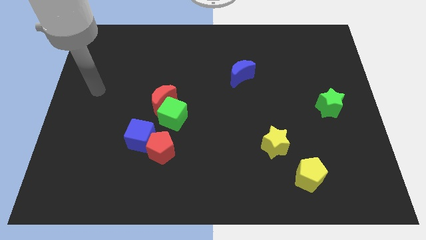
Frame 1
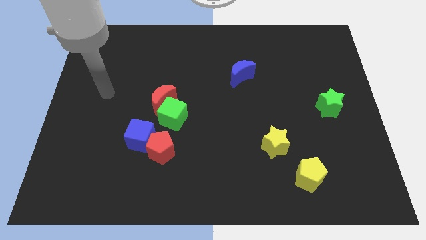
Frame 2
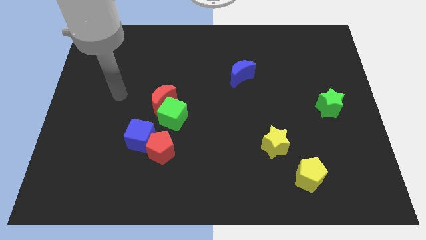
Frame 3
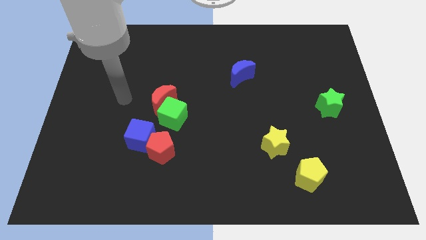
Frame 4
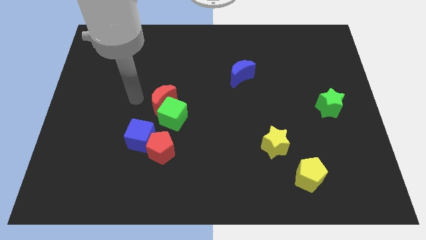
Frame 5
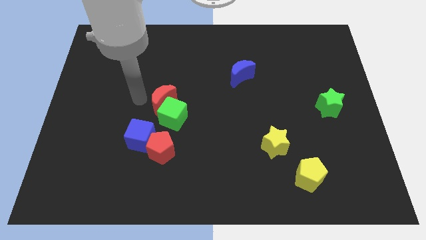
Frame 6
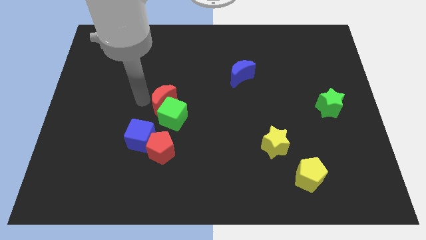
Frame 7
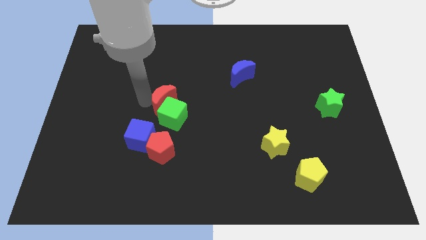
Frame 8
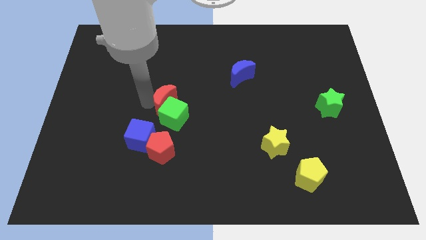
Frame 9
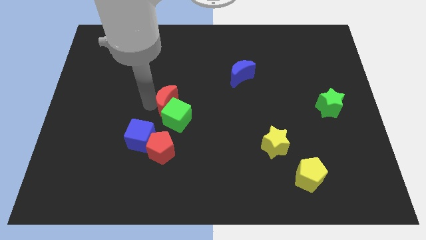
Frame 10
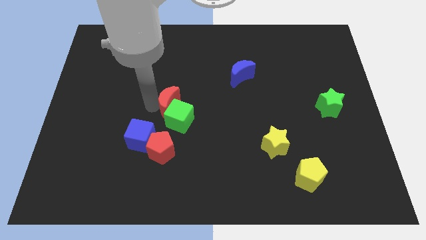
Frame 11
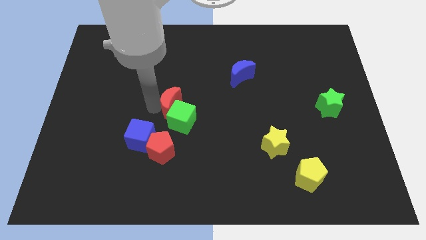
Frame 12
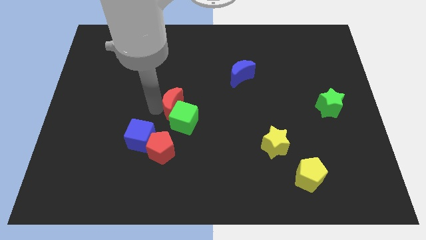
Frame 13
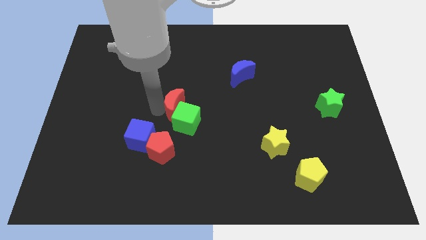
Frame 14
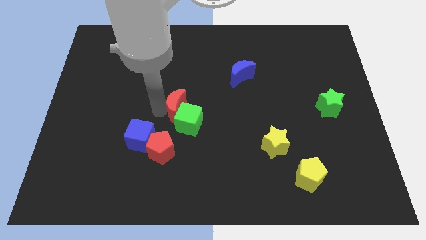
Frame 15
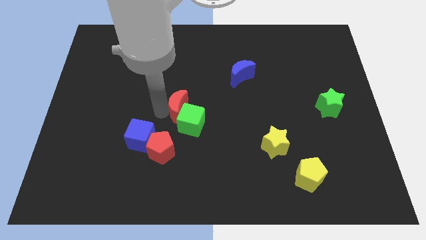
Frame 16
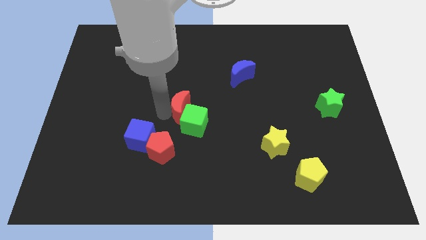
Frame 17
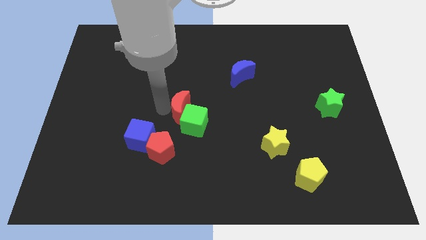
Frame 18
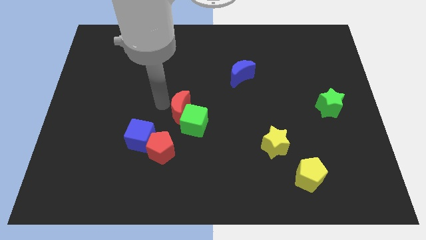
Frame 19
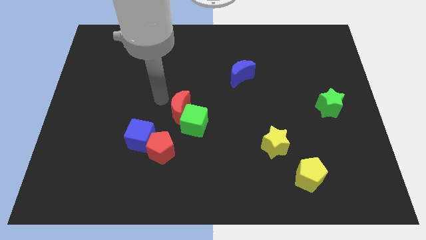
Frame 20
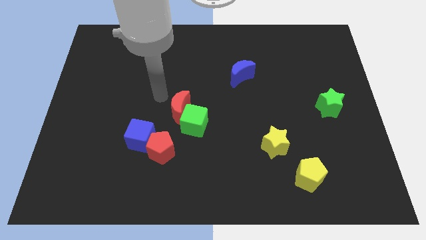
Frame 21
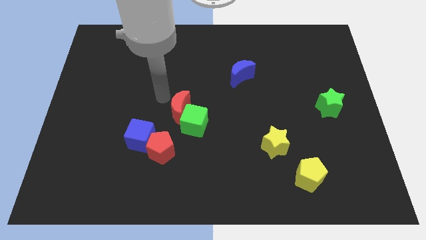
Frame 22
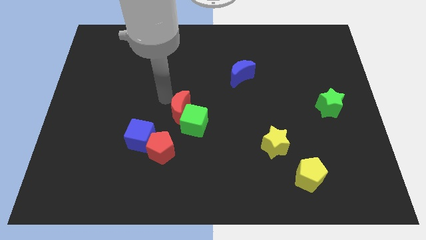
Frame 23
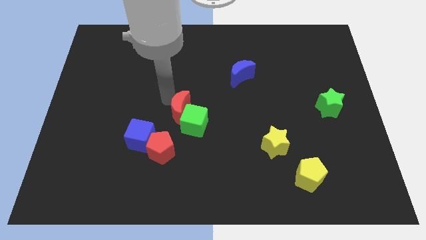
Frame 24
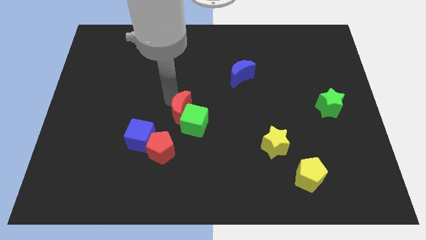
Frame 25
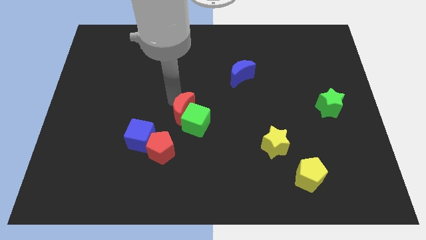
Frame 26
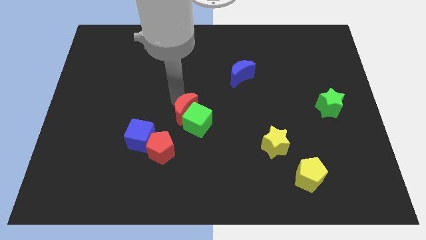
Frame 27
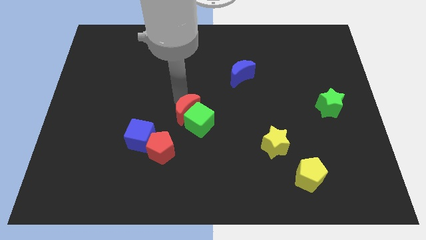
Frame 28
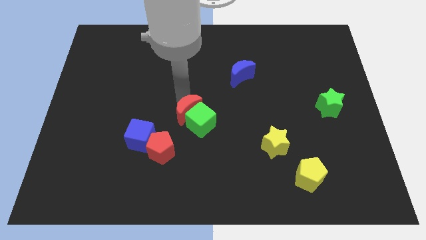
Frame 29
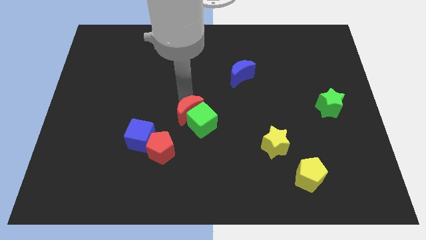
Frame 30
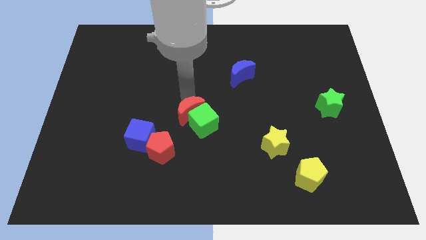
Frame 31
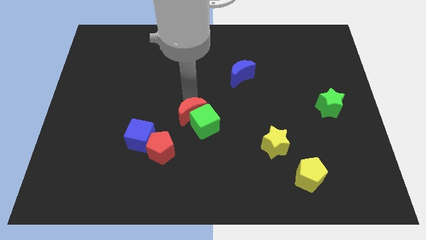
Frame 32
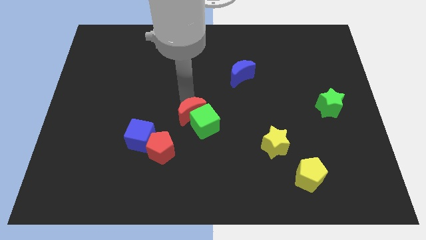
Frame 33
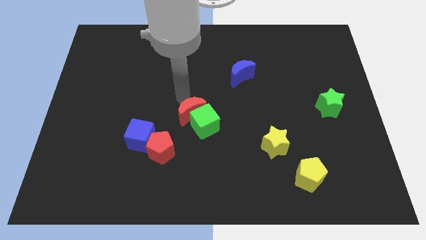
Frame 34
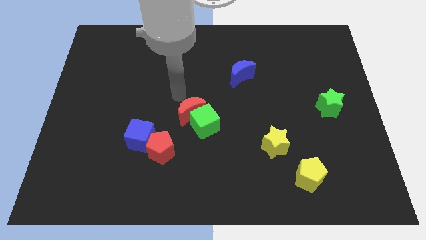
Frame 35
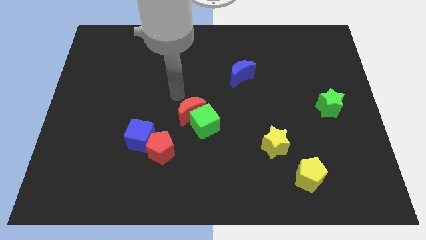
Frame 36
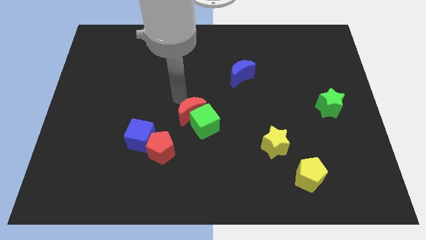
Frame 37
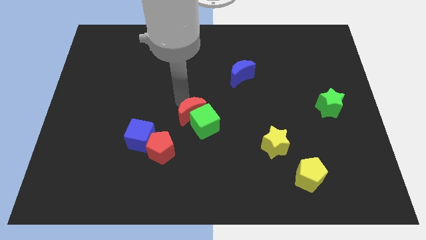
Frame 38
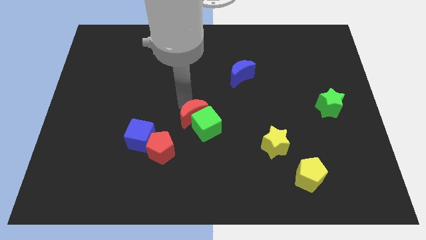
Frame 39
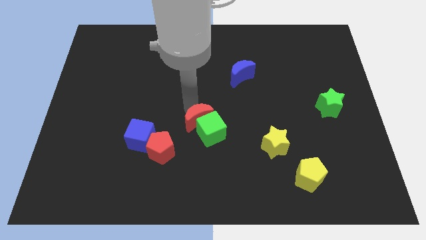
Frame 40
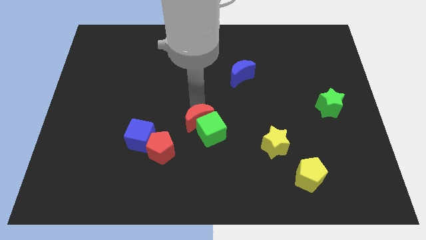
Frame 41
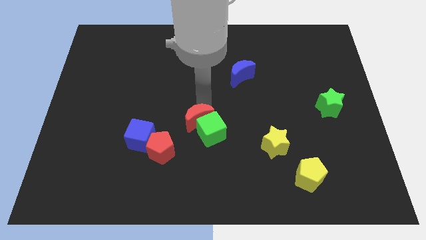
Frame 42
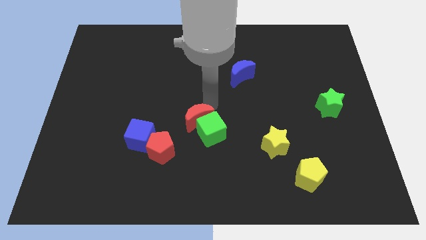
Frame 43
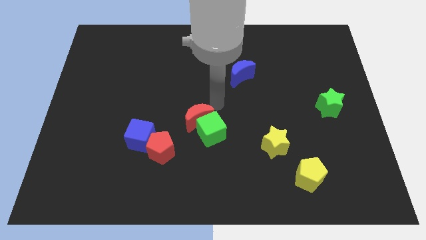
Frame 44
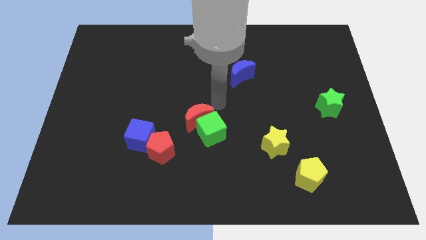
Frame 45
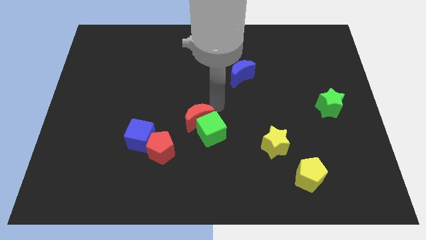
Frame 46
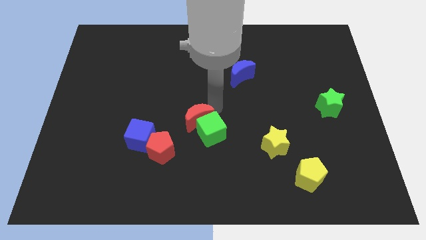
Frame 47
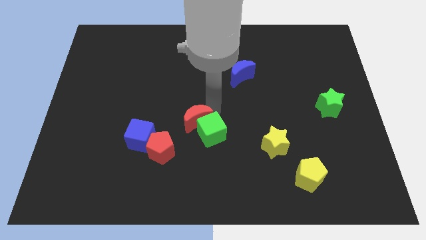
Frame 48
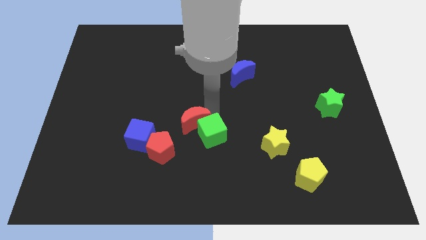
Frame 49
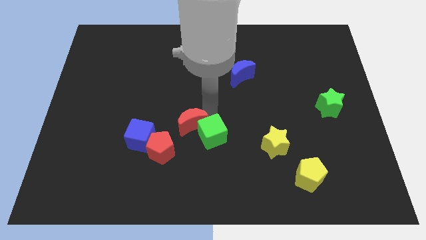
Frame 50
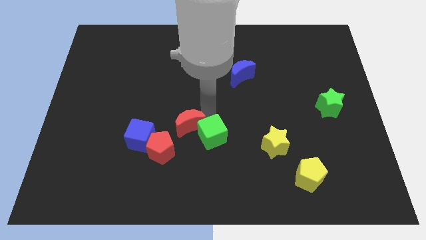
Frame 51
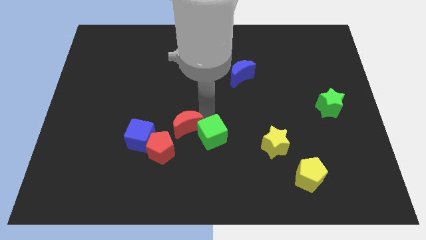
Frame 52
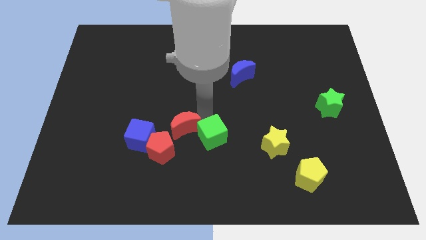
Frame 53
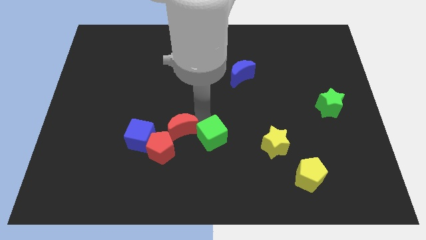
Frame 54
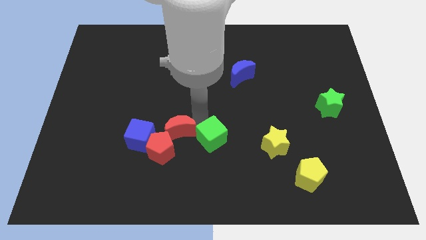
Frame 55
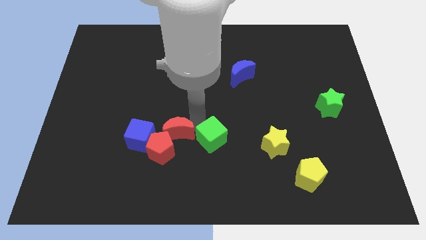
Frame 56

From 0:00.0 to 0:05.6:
slide the red moon next to the red pentagon

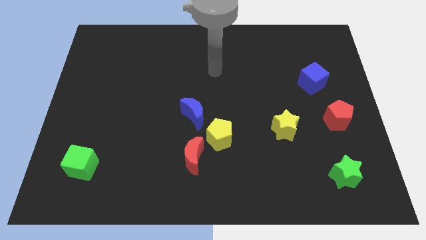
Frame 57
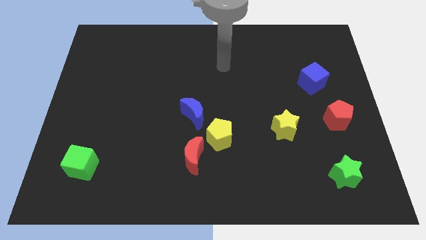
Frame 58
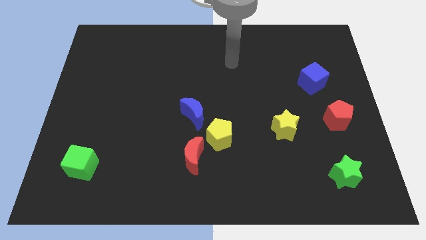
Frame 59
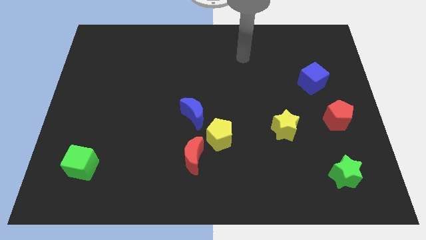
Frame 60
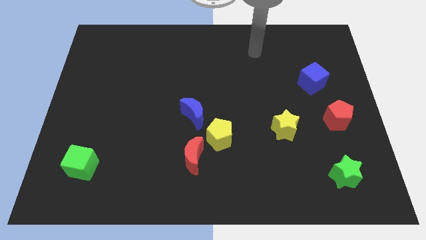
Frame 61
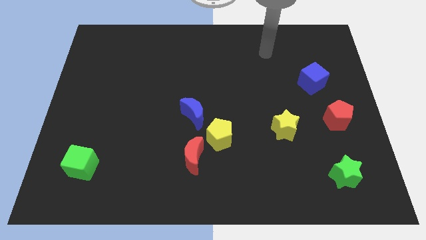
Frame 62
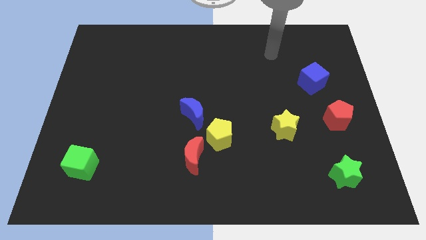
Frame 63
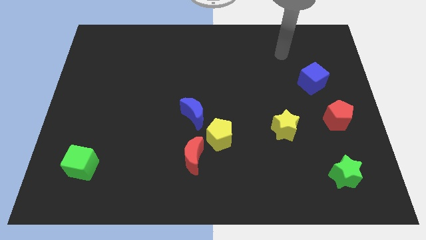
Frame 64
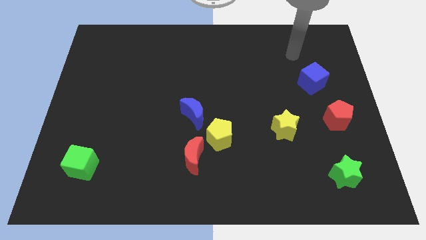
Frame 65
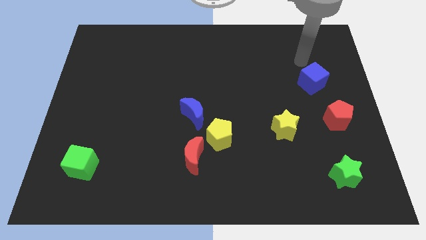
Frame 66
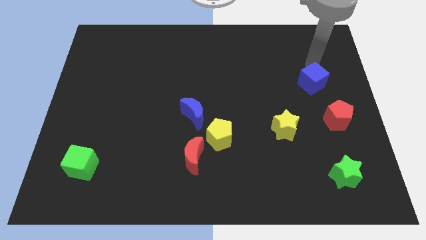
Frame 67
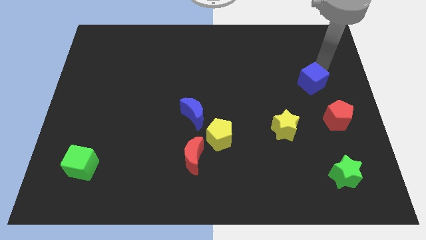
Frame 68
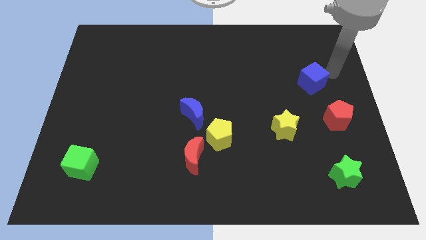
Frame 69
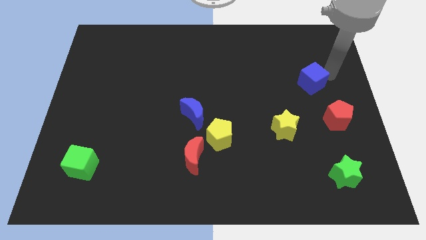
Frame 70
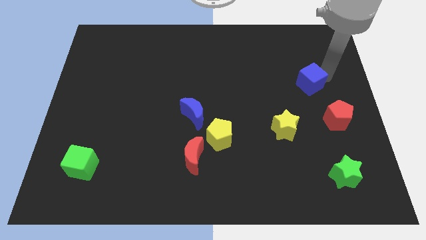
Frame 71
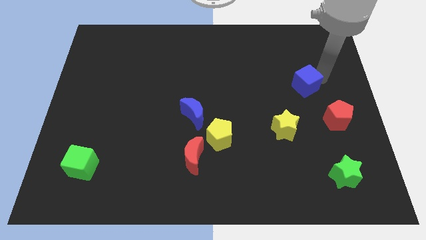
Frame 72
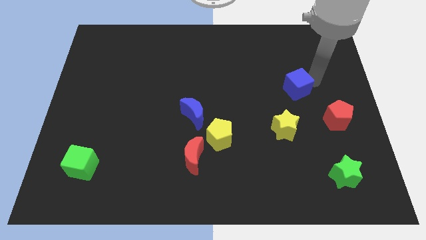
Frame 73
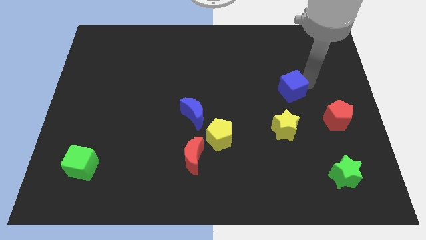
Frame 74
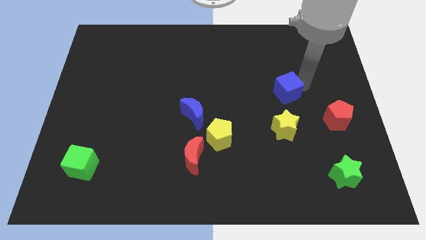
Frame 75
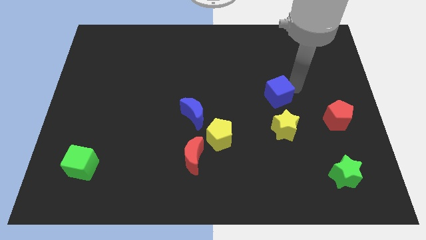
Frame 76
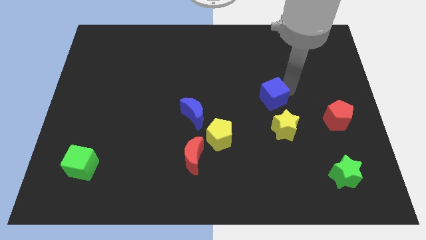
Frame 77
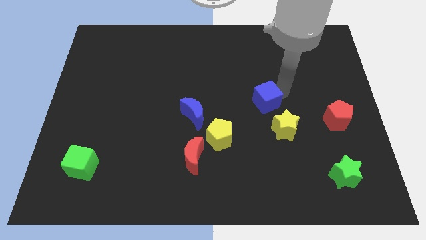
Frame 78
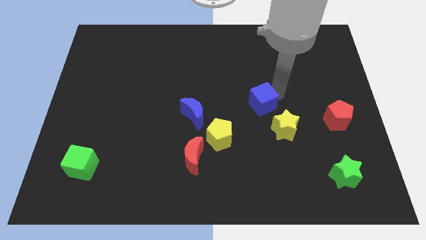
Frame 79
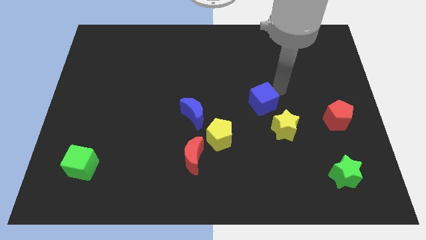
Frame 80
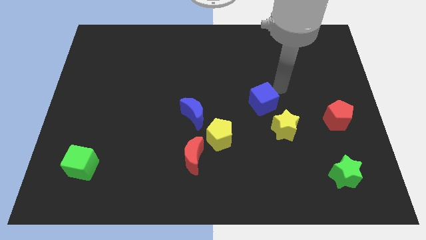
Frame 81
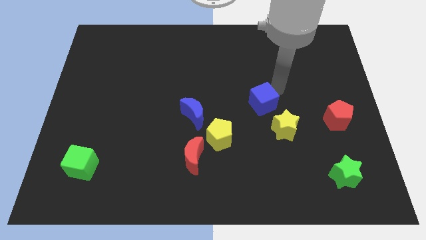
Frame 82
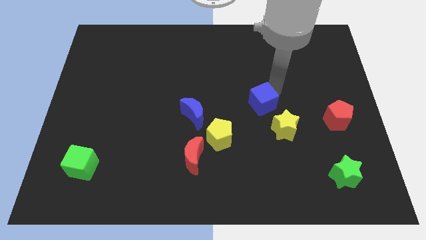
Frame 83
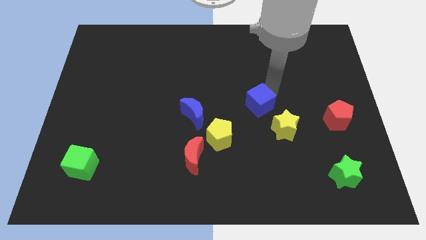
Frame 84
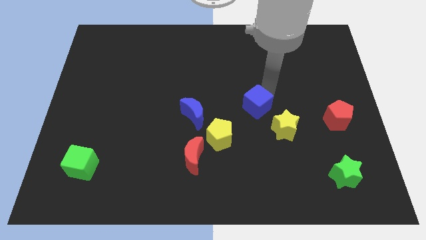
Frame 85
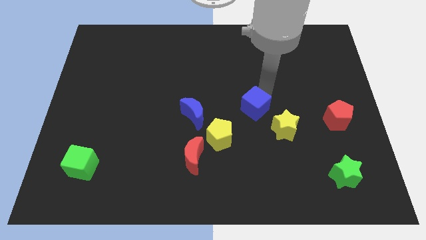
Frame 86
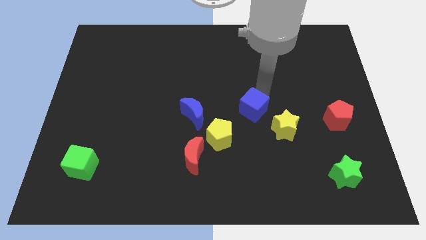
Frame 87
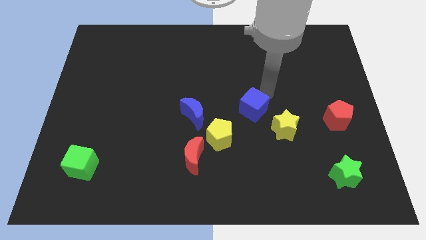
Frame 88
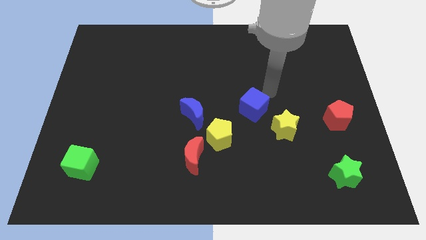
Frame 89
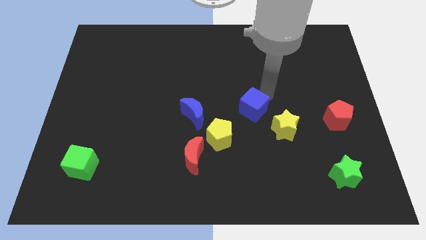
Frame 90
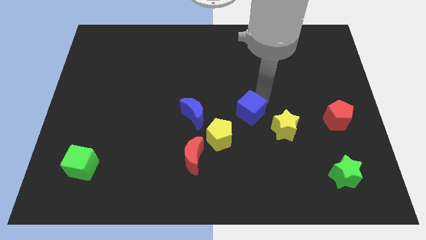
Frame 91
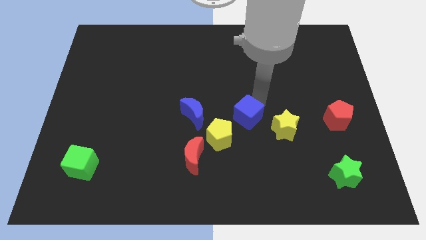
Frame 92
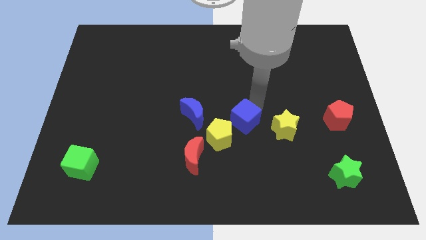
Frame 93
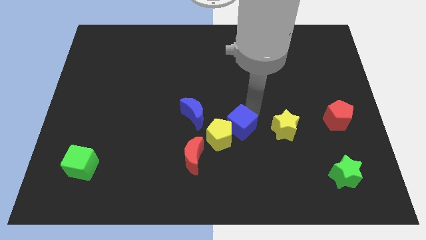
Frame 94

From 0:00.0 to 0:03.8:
push the blue cube towards the yellow pentagon
